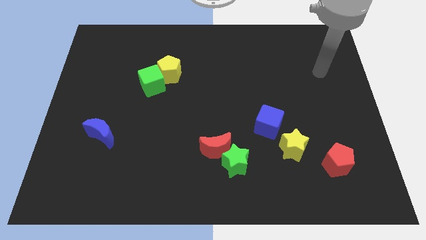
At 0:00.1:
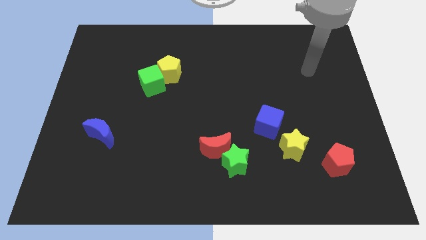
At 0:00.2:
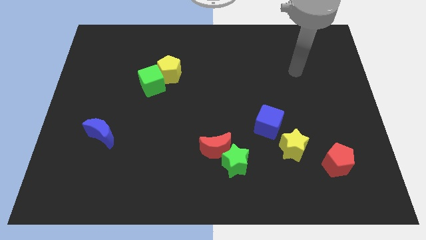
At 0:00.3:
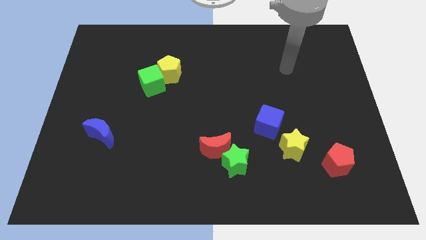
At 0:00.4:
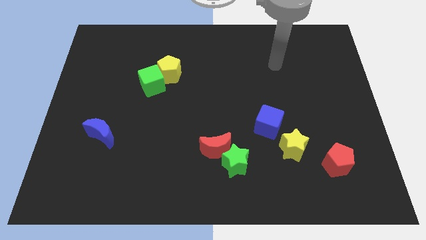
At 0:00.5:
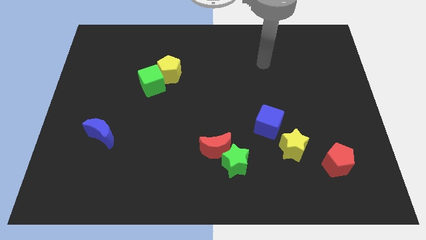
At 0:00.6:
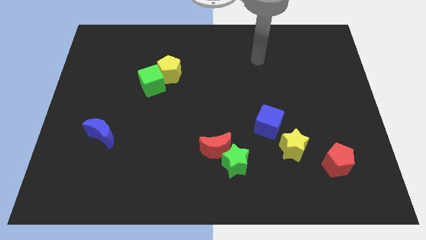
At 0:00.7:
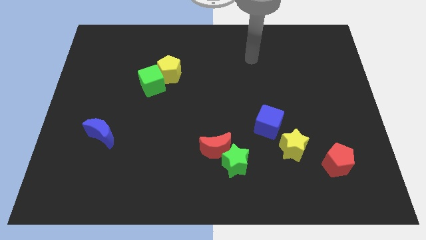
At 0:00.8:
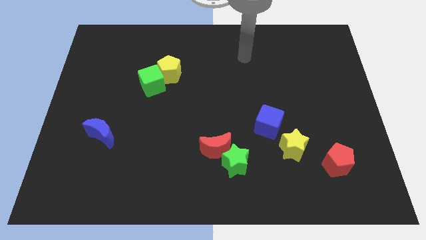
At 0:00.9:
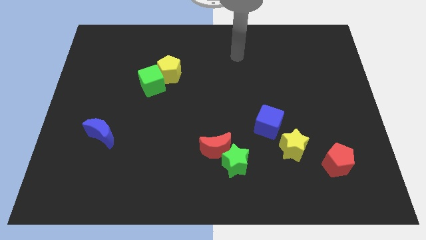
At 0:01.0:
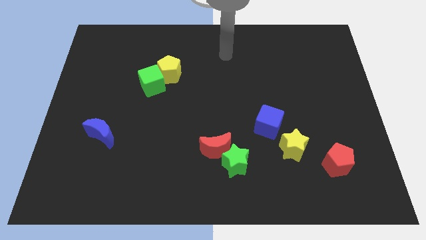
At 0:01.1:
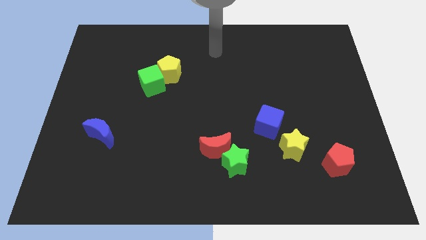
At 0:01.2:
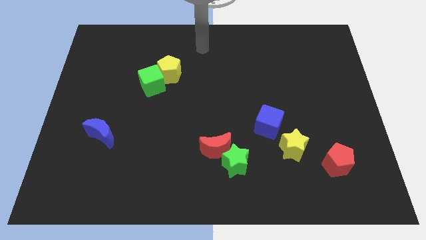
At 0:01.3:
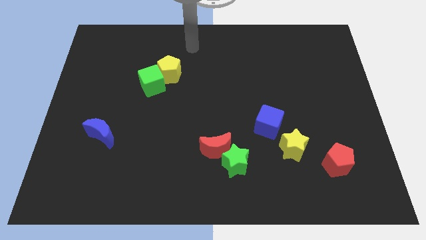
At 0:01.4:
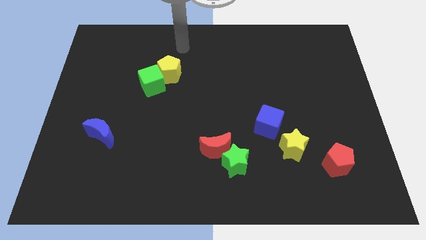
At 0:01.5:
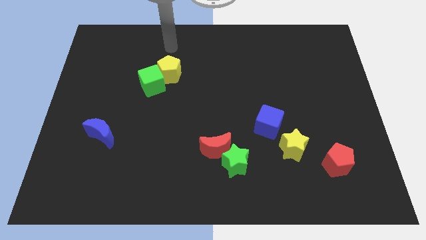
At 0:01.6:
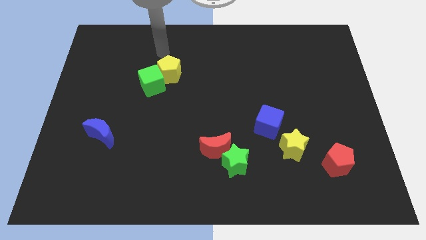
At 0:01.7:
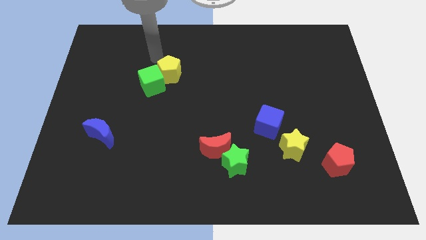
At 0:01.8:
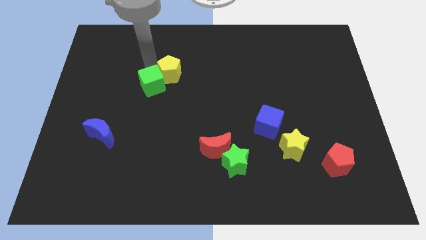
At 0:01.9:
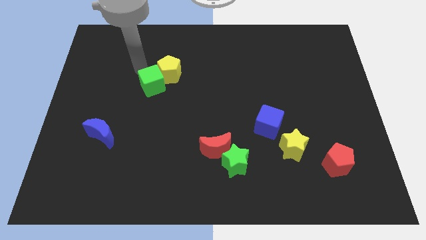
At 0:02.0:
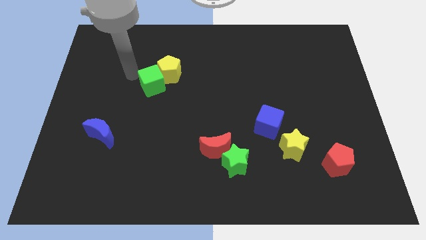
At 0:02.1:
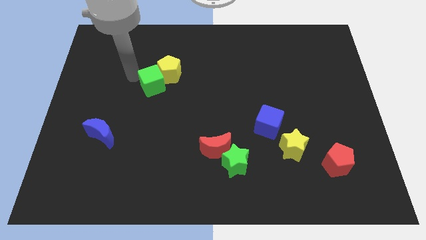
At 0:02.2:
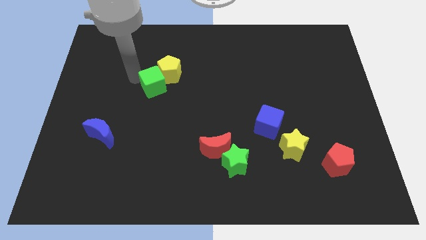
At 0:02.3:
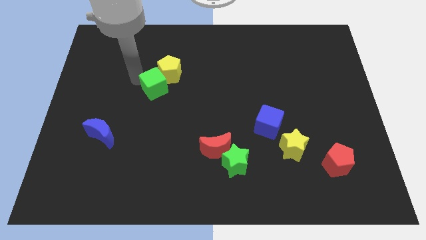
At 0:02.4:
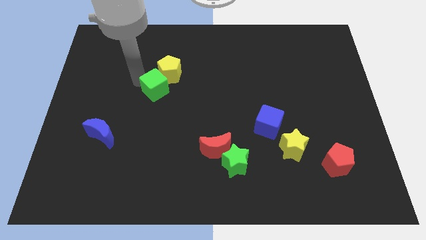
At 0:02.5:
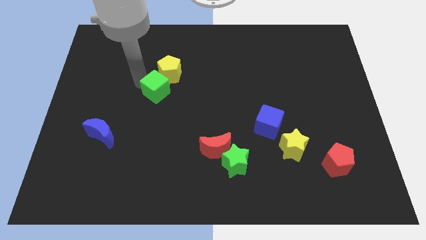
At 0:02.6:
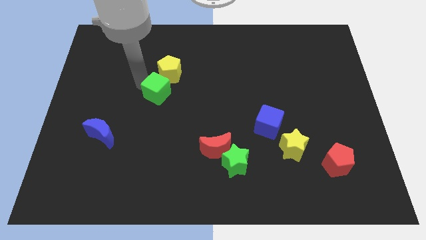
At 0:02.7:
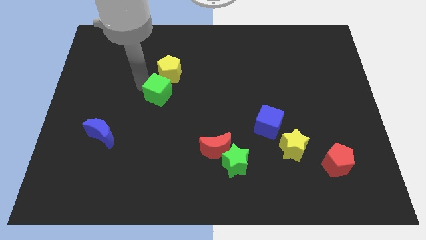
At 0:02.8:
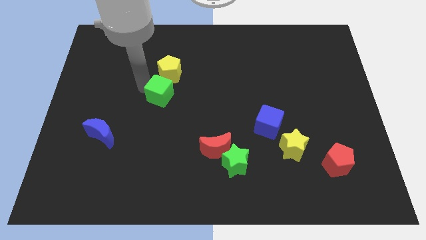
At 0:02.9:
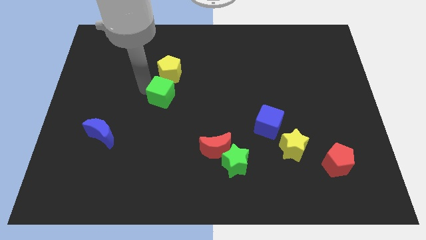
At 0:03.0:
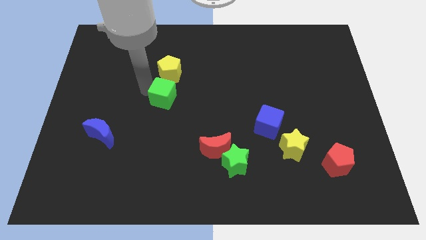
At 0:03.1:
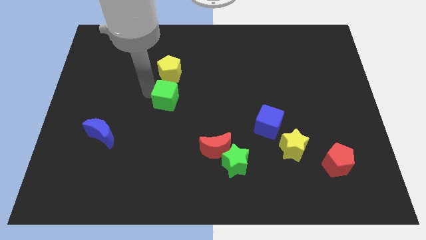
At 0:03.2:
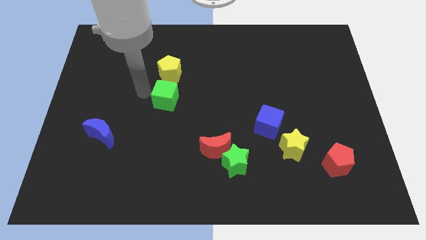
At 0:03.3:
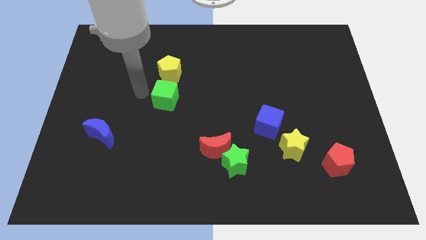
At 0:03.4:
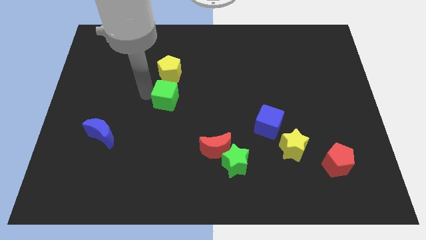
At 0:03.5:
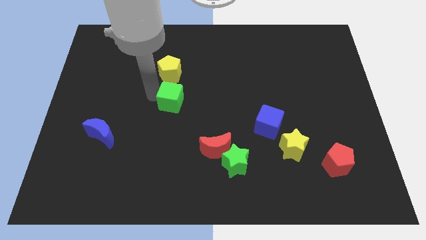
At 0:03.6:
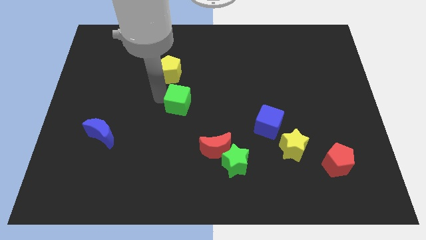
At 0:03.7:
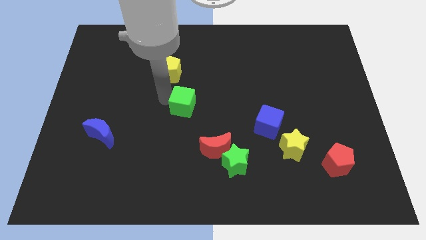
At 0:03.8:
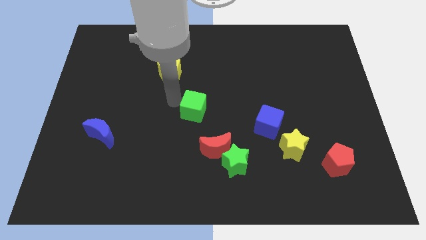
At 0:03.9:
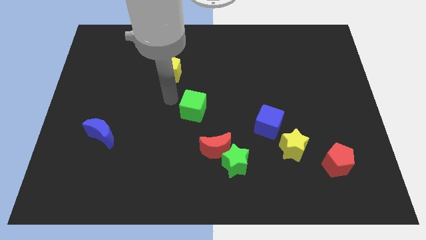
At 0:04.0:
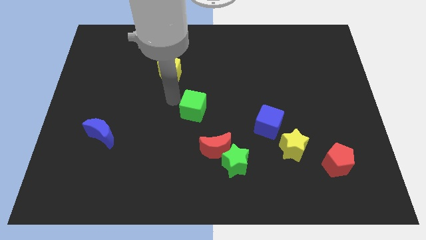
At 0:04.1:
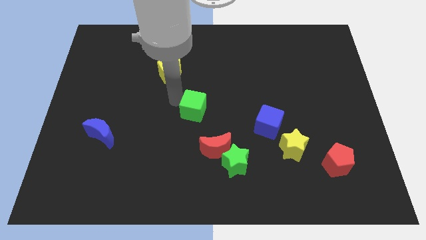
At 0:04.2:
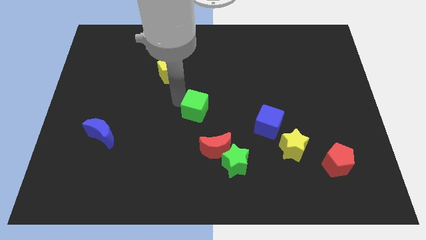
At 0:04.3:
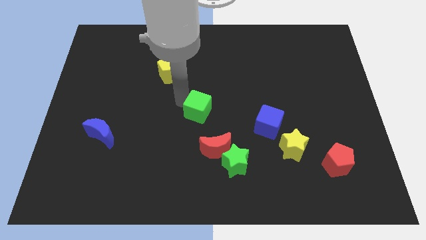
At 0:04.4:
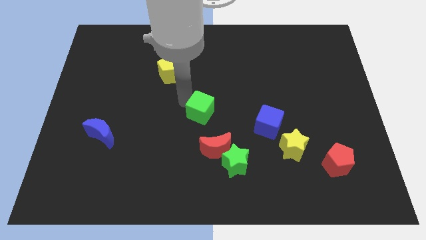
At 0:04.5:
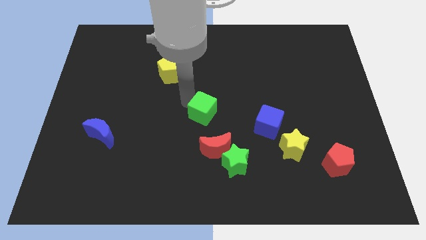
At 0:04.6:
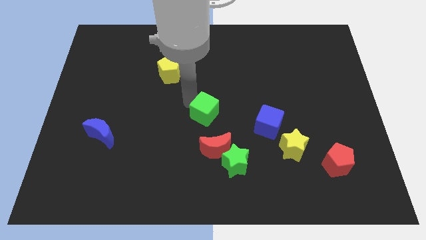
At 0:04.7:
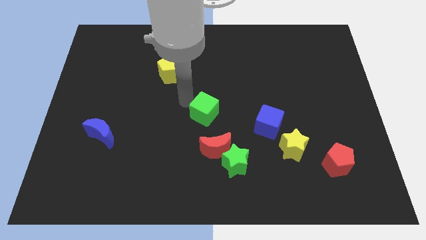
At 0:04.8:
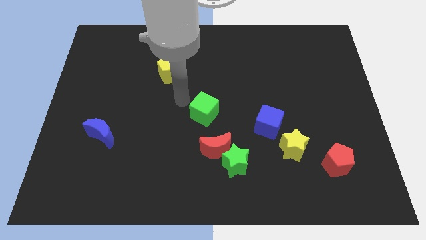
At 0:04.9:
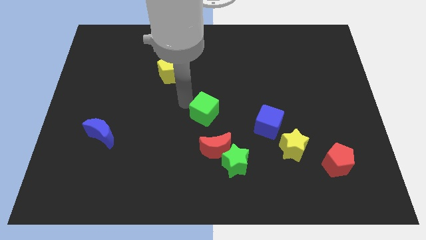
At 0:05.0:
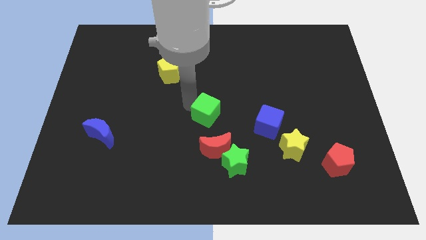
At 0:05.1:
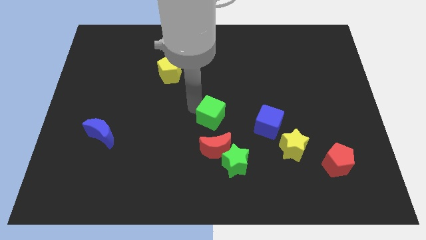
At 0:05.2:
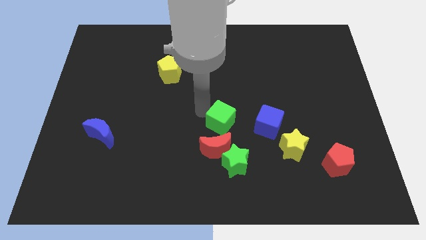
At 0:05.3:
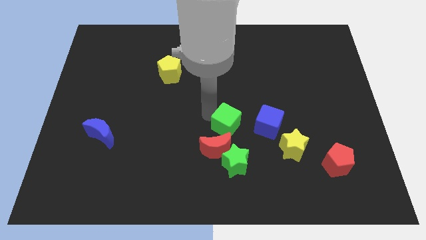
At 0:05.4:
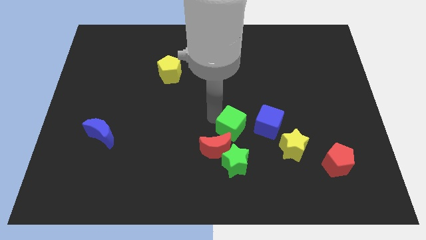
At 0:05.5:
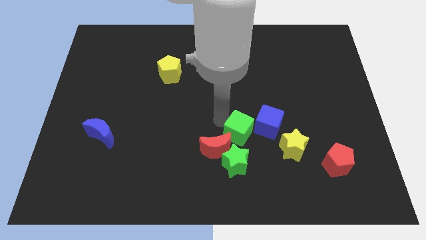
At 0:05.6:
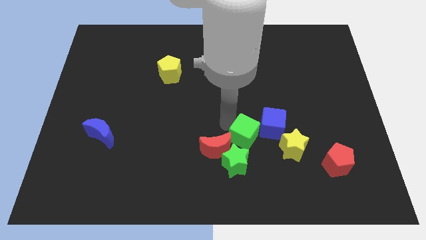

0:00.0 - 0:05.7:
push the green cube to the top right side of the green star

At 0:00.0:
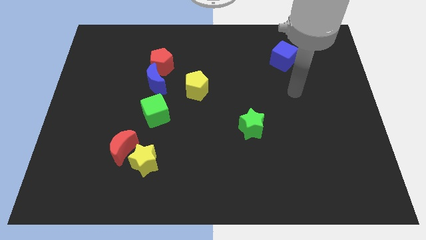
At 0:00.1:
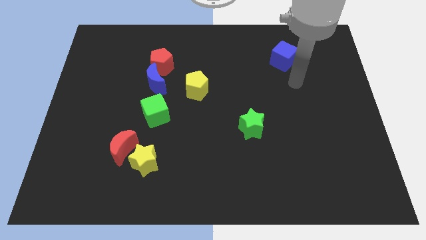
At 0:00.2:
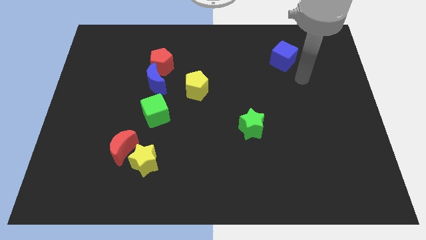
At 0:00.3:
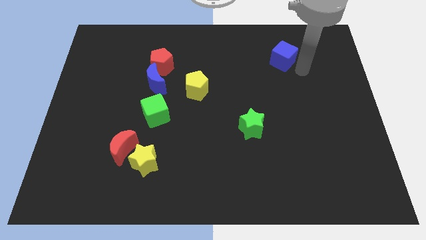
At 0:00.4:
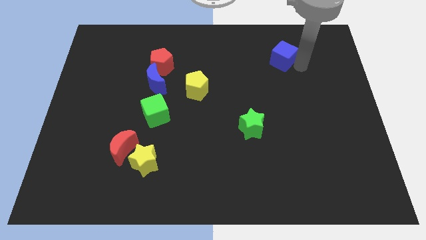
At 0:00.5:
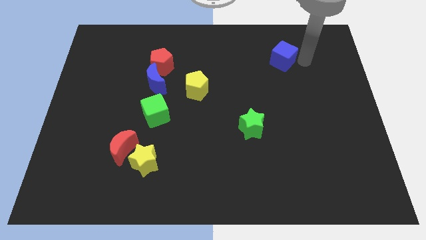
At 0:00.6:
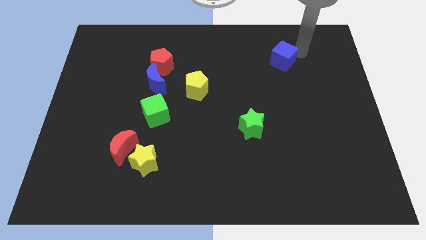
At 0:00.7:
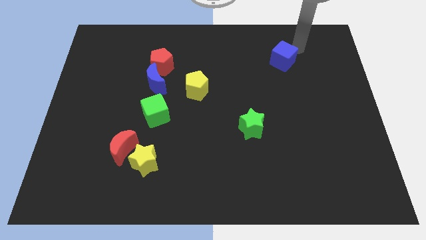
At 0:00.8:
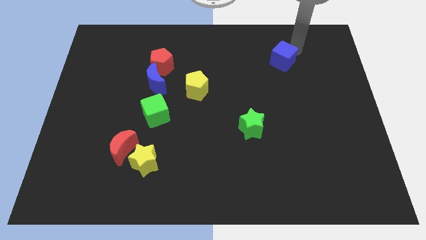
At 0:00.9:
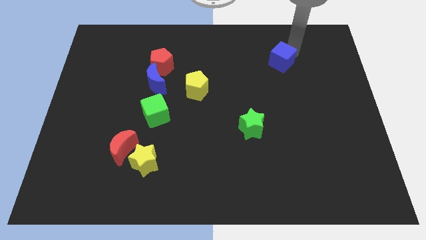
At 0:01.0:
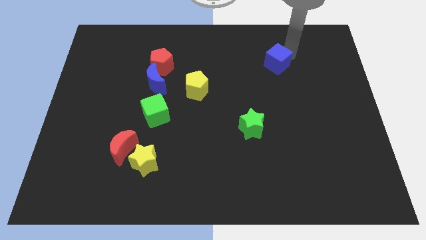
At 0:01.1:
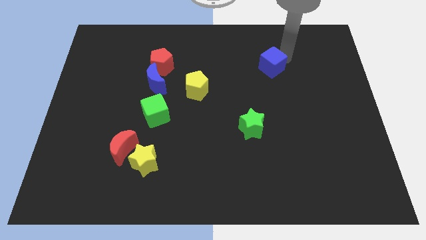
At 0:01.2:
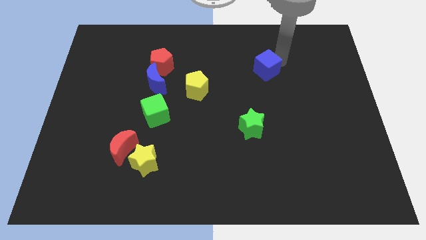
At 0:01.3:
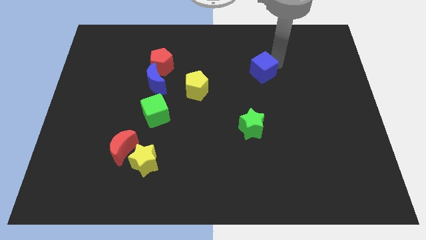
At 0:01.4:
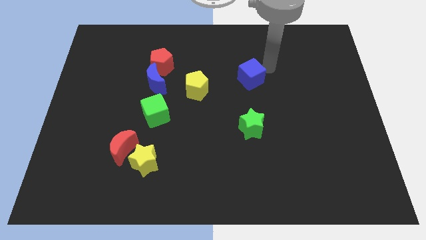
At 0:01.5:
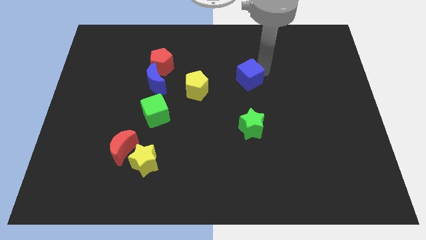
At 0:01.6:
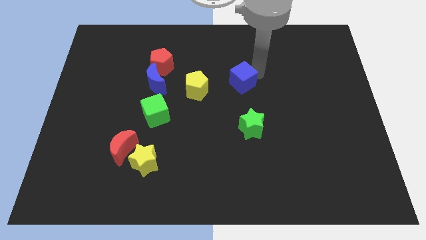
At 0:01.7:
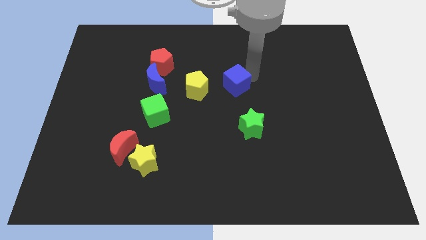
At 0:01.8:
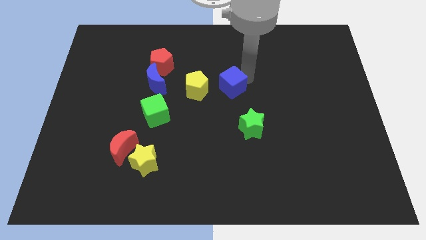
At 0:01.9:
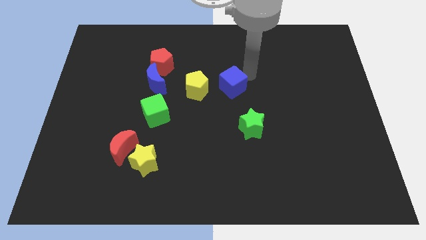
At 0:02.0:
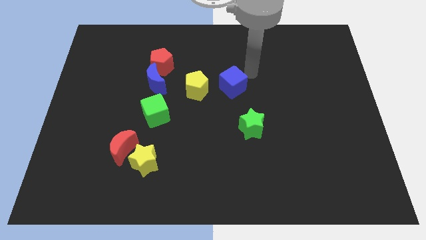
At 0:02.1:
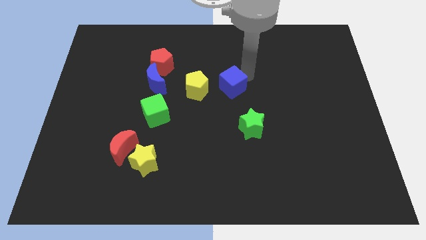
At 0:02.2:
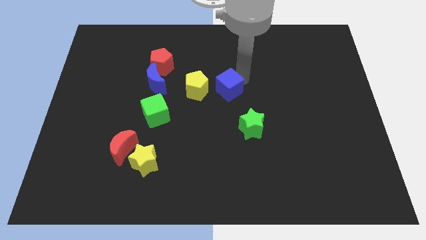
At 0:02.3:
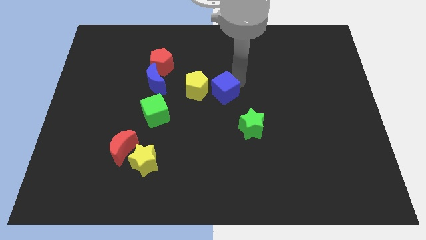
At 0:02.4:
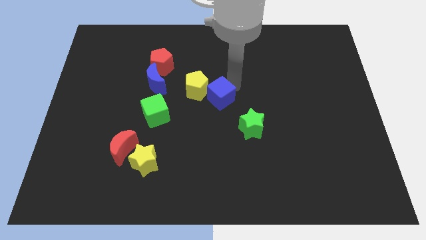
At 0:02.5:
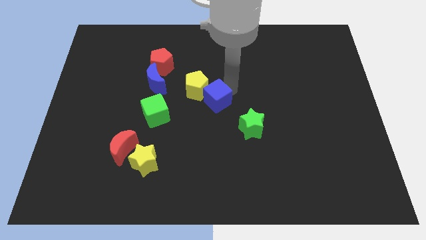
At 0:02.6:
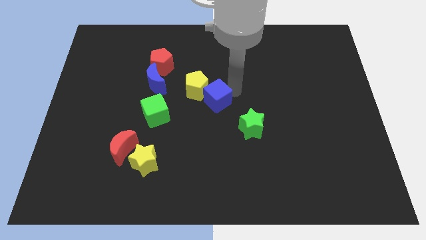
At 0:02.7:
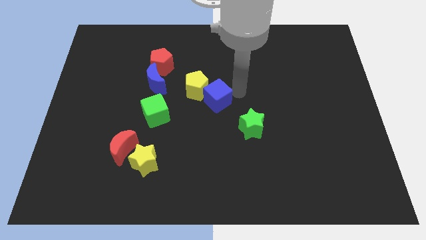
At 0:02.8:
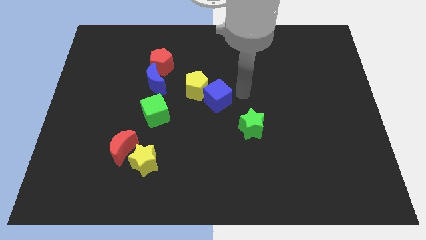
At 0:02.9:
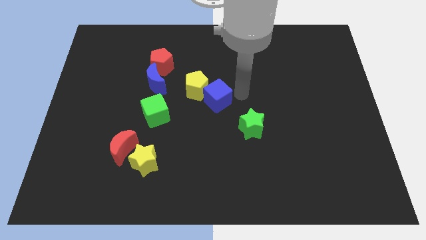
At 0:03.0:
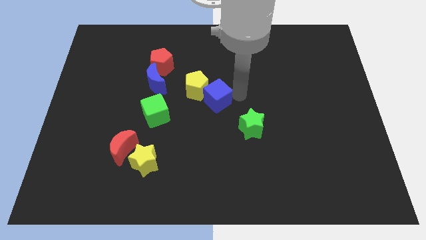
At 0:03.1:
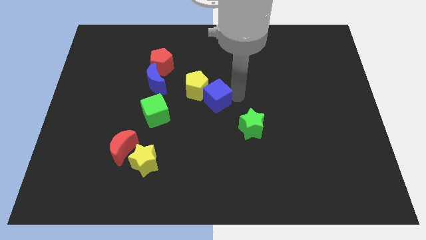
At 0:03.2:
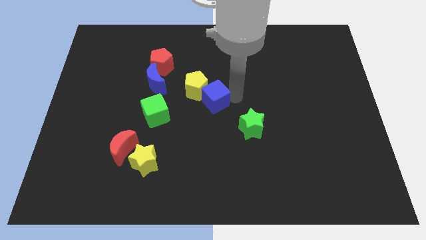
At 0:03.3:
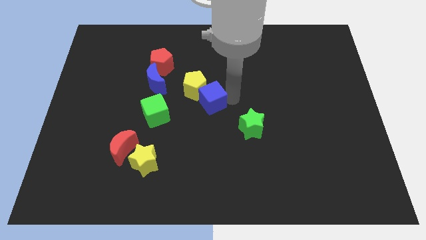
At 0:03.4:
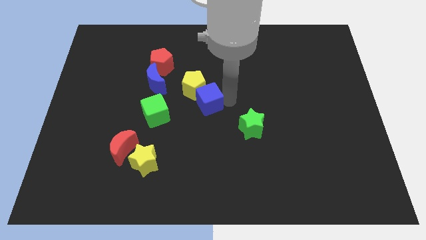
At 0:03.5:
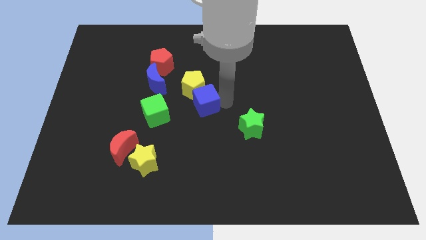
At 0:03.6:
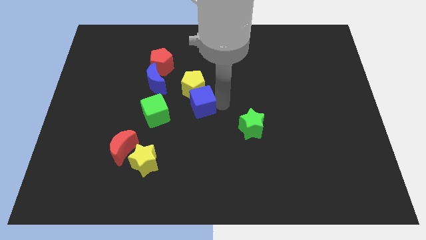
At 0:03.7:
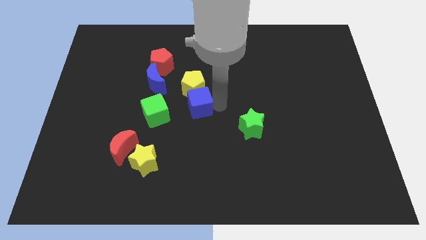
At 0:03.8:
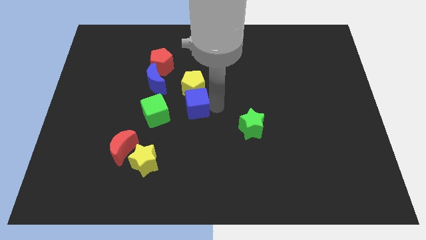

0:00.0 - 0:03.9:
push the blue cube to the bottom left of the yellow pentagon
